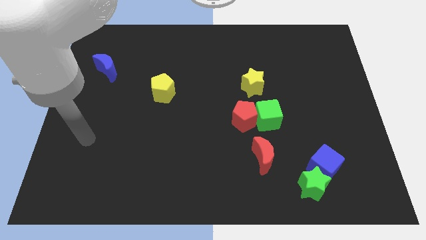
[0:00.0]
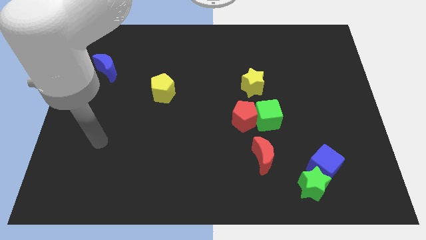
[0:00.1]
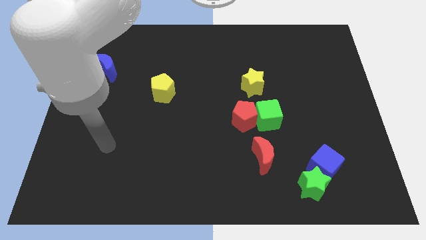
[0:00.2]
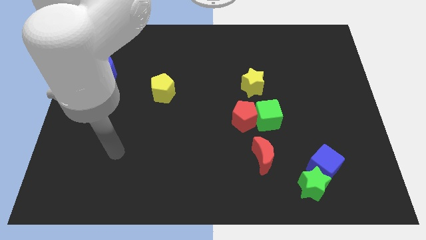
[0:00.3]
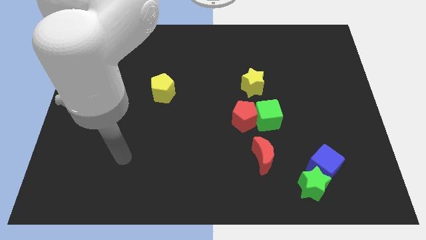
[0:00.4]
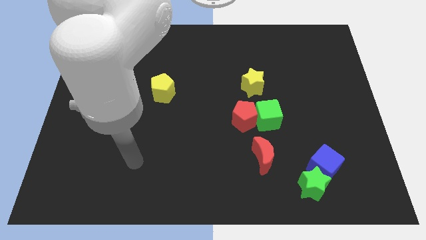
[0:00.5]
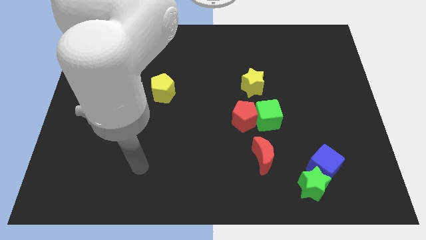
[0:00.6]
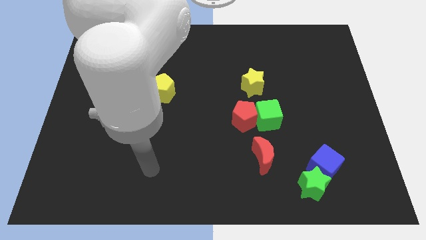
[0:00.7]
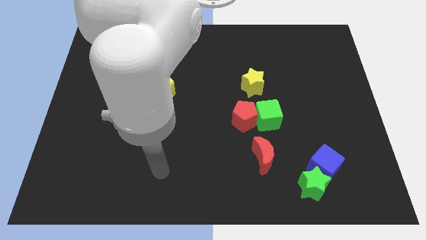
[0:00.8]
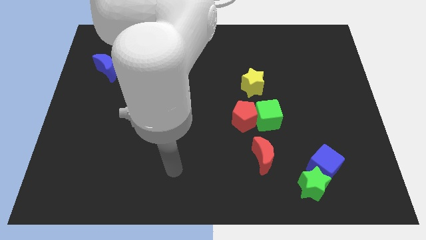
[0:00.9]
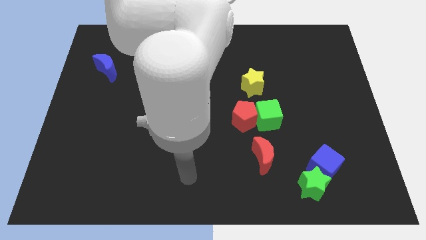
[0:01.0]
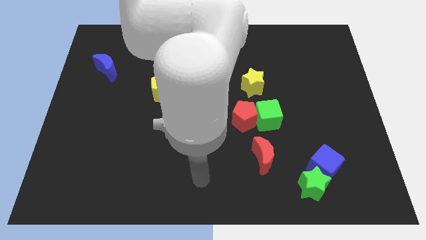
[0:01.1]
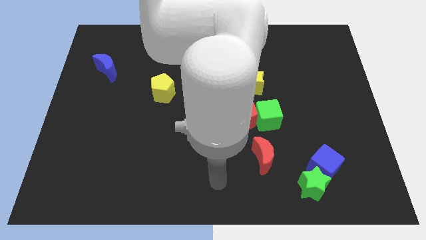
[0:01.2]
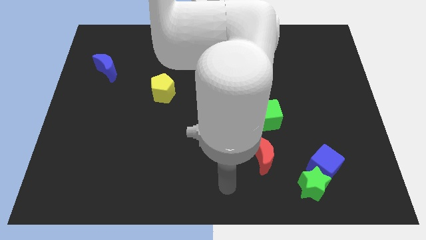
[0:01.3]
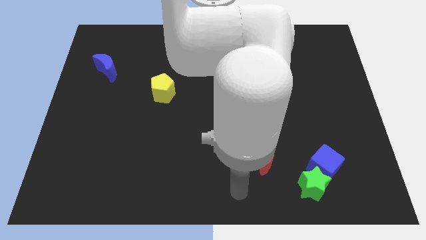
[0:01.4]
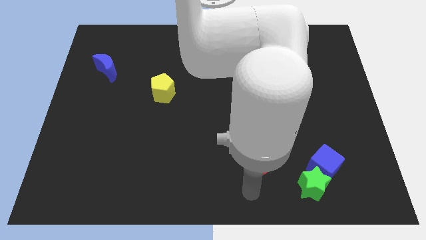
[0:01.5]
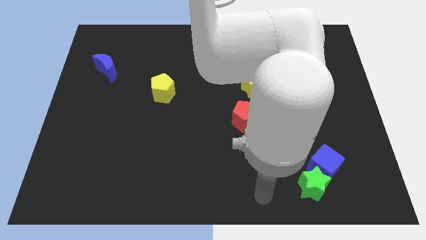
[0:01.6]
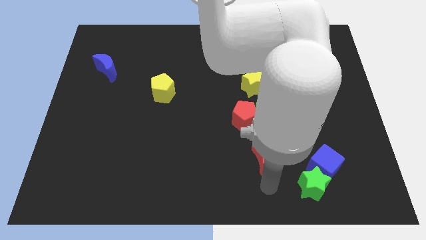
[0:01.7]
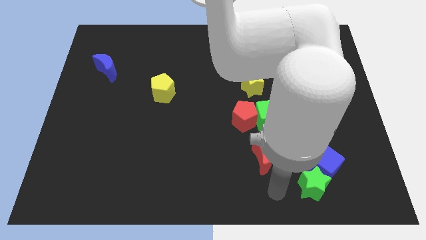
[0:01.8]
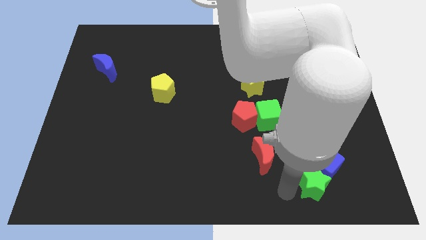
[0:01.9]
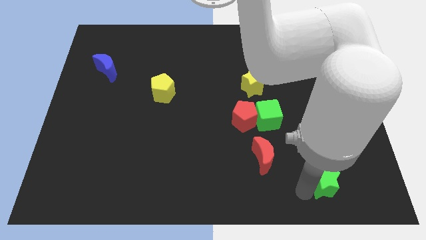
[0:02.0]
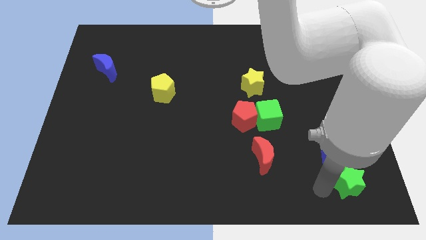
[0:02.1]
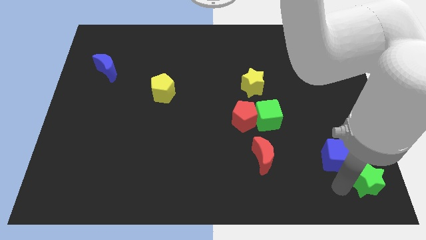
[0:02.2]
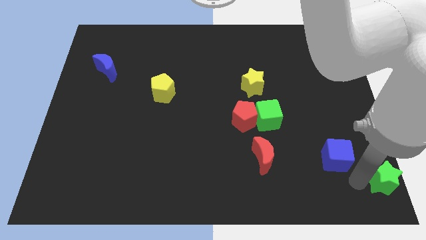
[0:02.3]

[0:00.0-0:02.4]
separate the blue cube from the green star

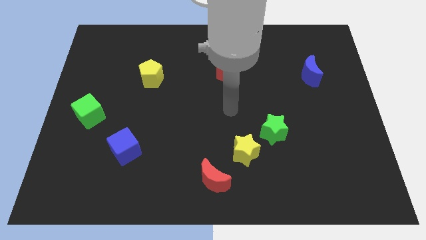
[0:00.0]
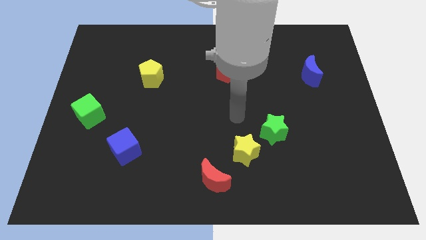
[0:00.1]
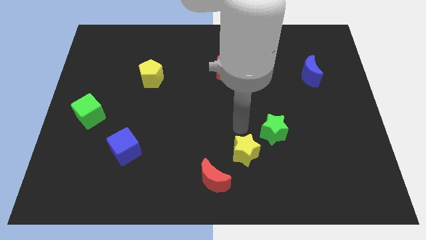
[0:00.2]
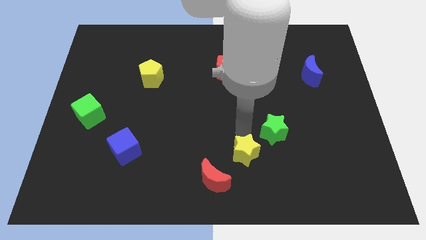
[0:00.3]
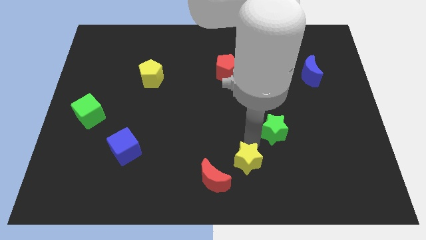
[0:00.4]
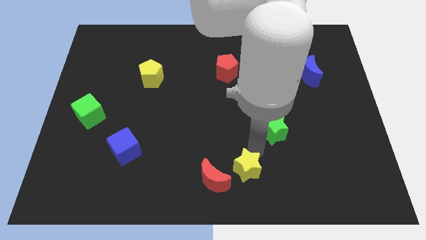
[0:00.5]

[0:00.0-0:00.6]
separate the green star from the yellow star

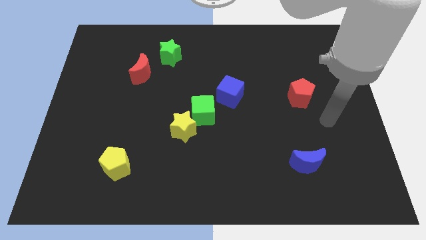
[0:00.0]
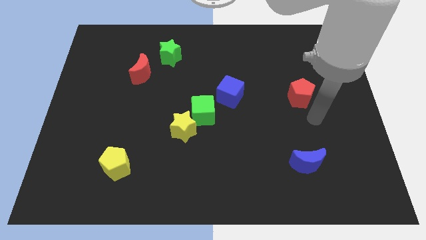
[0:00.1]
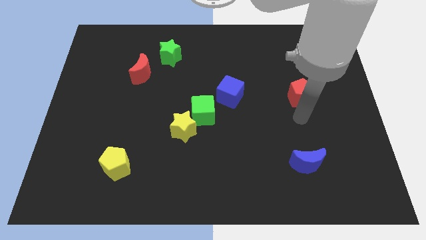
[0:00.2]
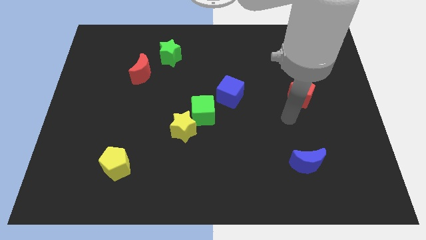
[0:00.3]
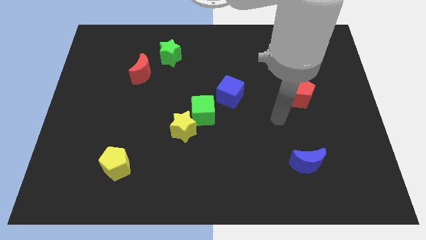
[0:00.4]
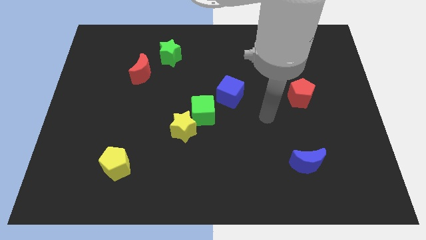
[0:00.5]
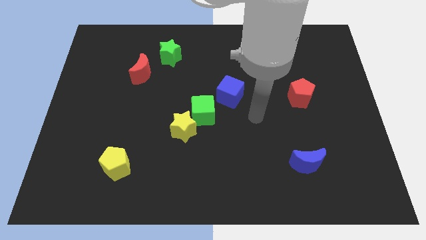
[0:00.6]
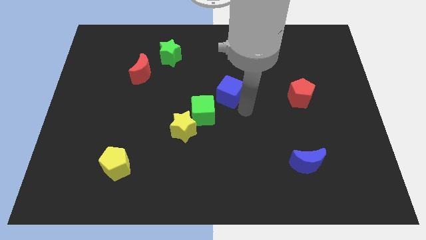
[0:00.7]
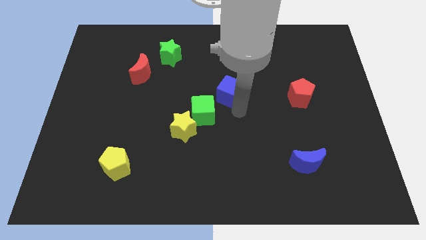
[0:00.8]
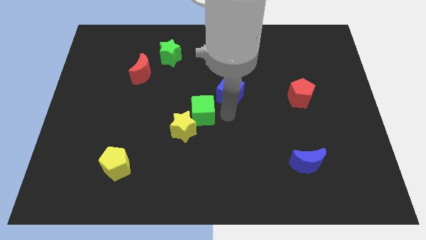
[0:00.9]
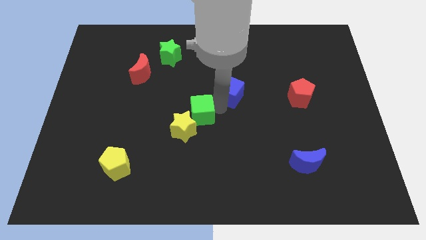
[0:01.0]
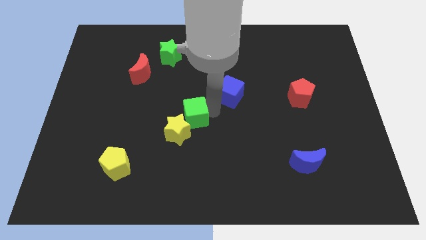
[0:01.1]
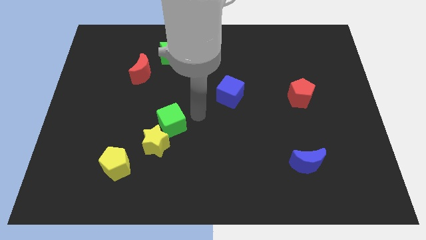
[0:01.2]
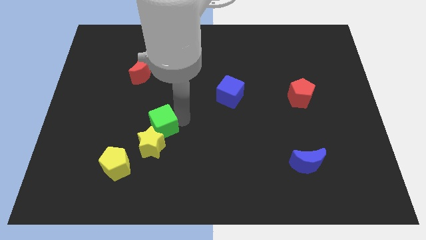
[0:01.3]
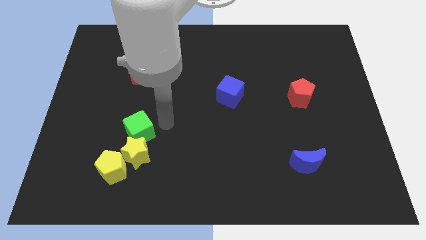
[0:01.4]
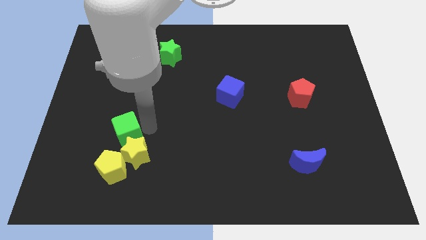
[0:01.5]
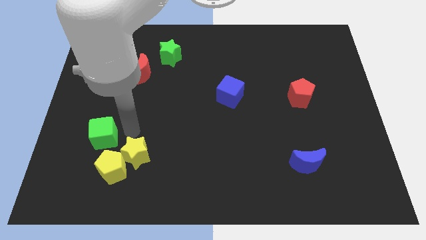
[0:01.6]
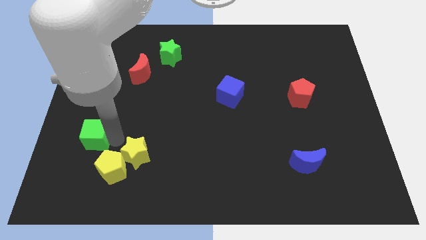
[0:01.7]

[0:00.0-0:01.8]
pull the yellow star apart from the green cube

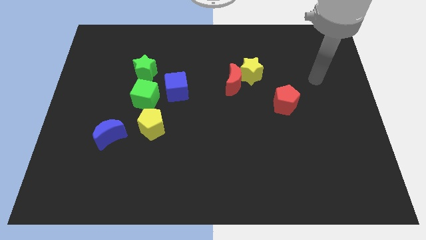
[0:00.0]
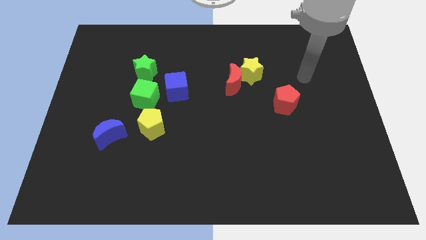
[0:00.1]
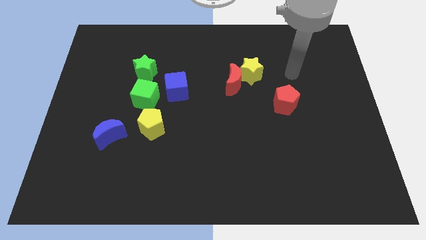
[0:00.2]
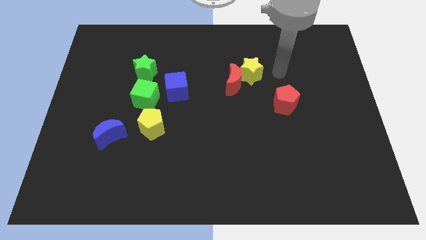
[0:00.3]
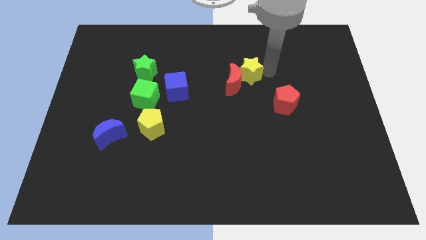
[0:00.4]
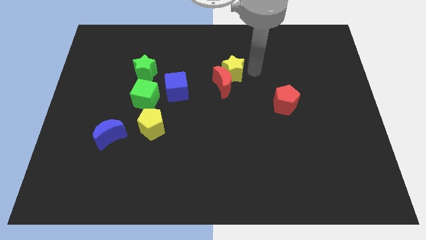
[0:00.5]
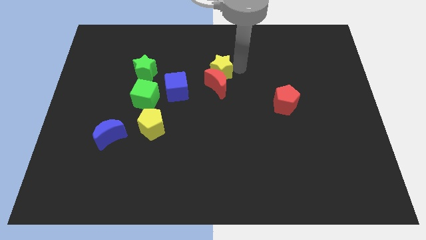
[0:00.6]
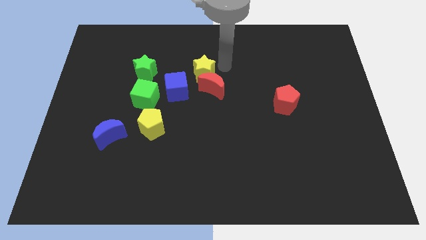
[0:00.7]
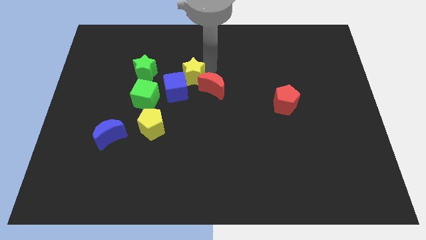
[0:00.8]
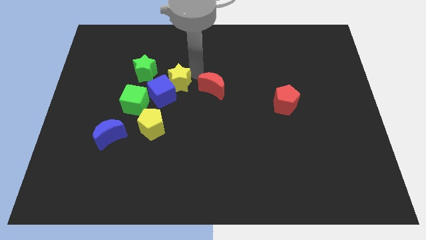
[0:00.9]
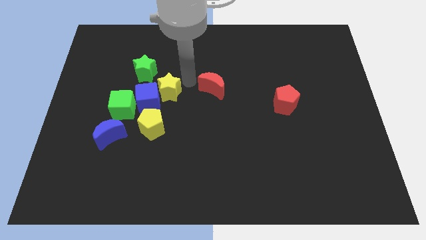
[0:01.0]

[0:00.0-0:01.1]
separate the red moon from the yellow star

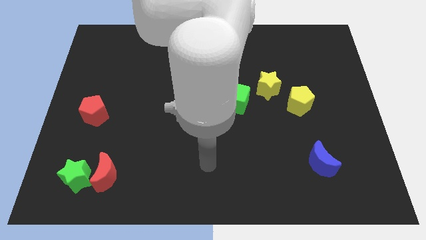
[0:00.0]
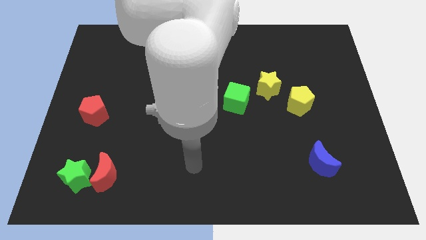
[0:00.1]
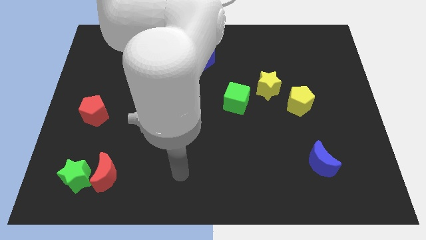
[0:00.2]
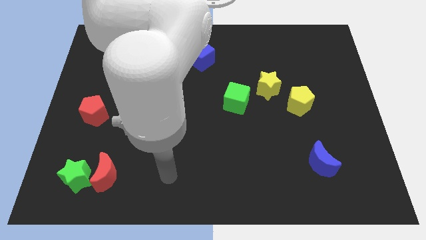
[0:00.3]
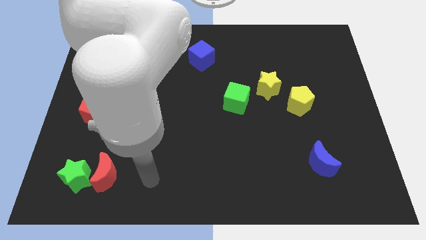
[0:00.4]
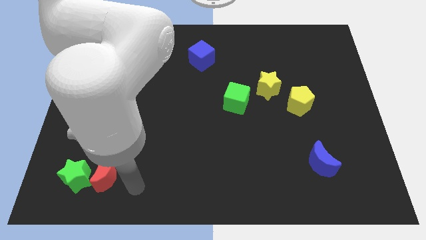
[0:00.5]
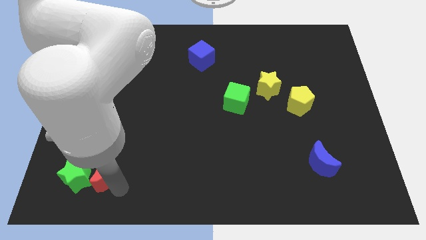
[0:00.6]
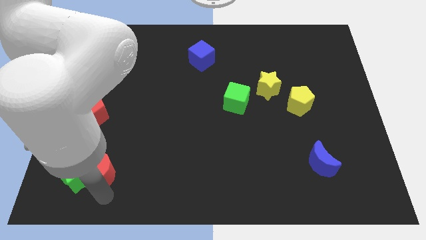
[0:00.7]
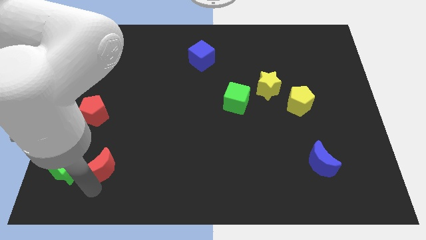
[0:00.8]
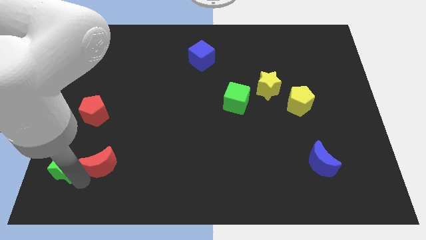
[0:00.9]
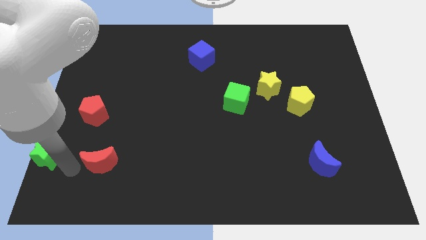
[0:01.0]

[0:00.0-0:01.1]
pull the red moon apart from the green star

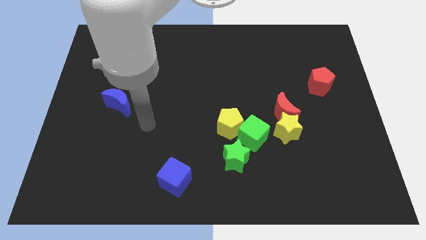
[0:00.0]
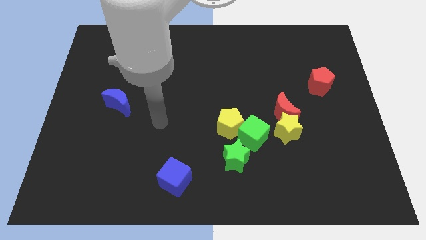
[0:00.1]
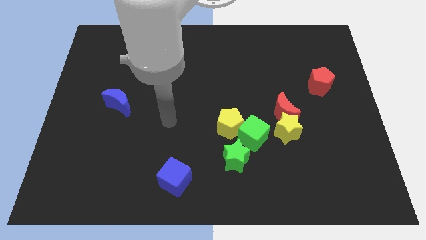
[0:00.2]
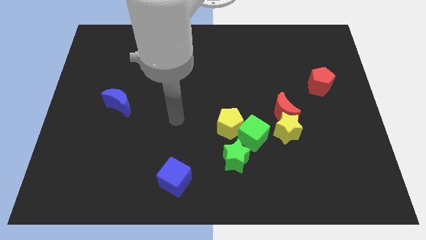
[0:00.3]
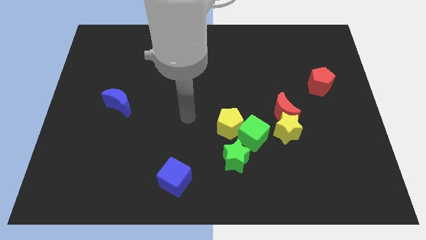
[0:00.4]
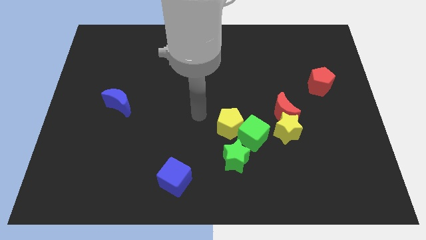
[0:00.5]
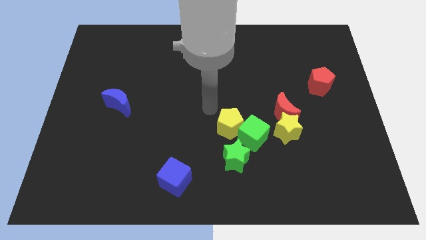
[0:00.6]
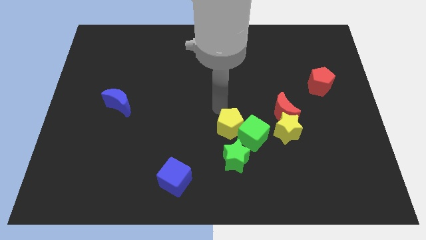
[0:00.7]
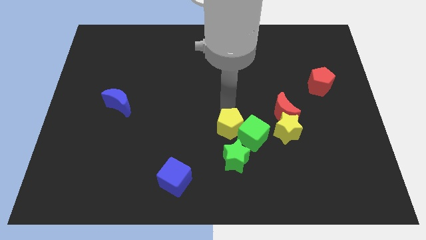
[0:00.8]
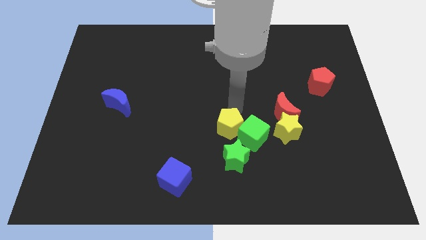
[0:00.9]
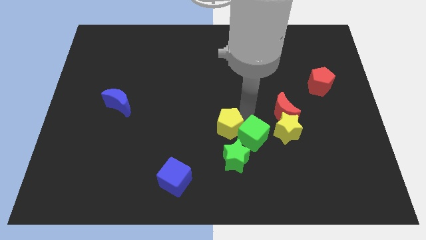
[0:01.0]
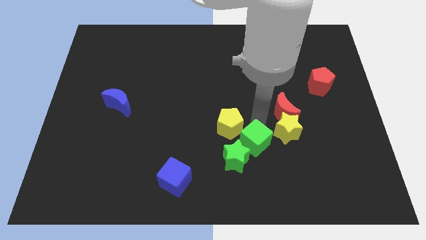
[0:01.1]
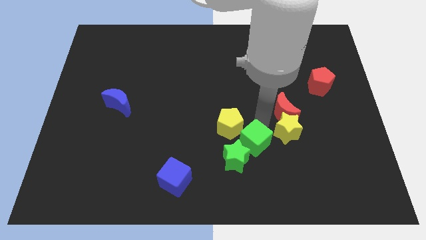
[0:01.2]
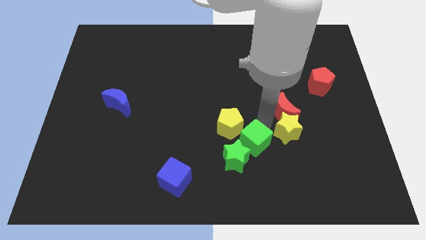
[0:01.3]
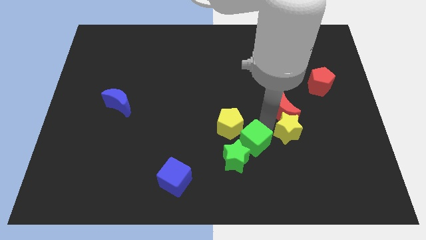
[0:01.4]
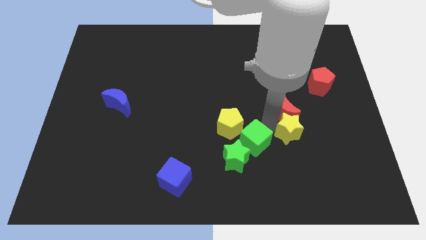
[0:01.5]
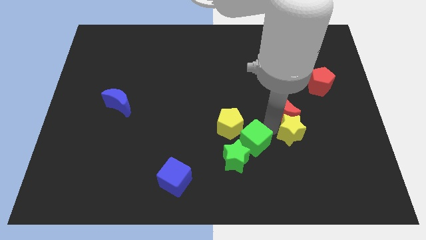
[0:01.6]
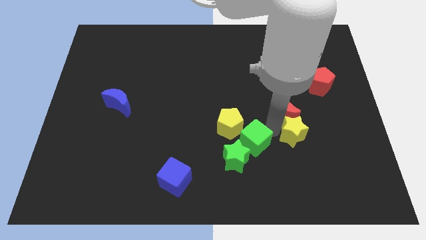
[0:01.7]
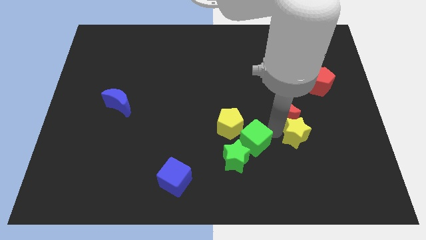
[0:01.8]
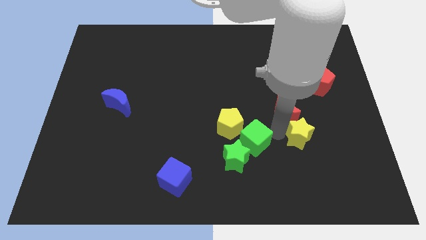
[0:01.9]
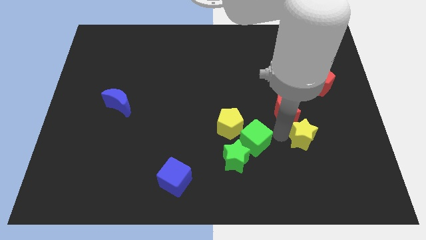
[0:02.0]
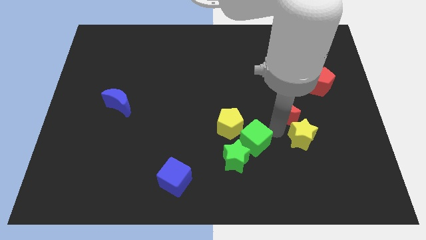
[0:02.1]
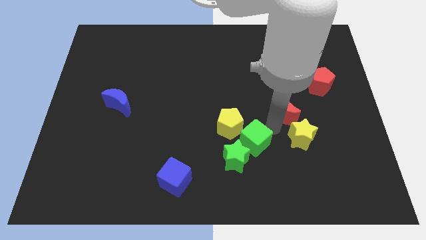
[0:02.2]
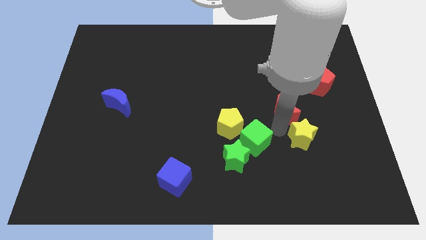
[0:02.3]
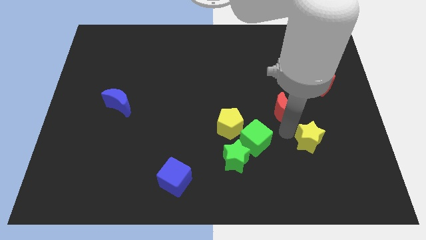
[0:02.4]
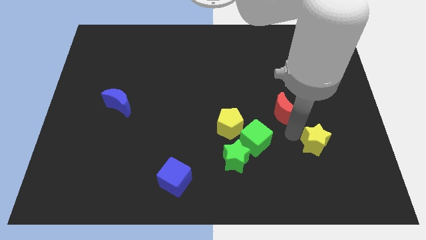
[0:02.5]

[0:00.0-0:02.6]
separate the yellow star from the red moon and green cube
